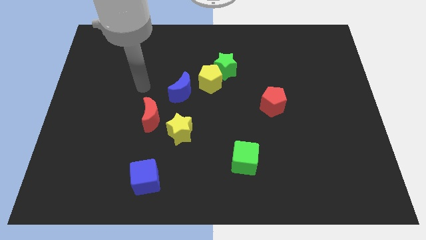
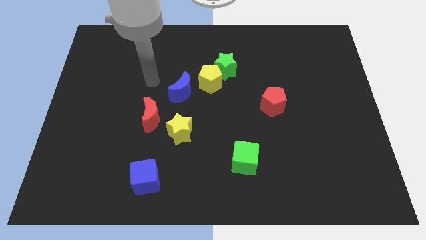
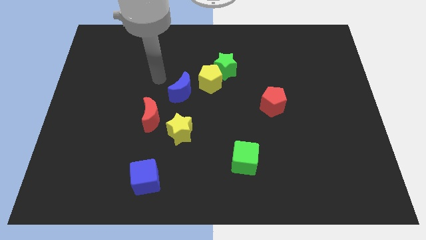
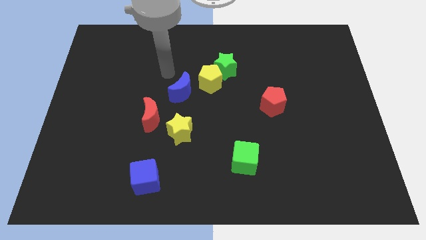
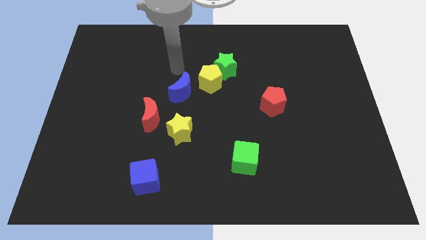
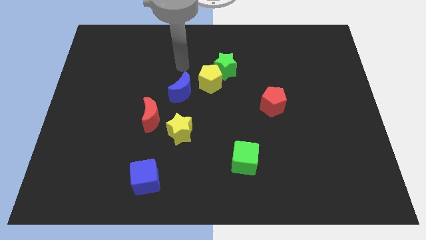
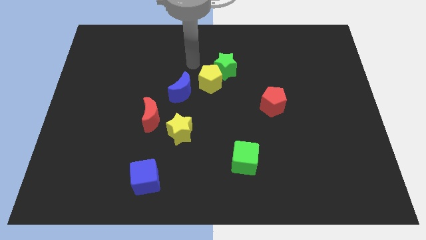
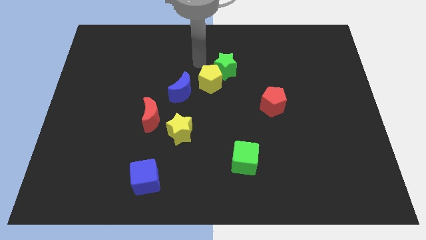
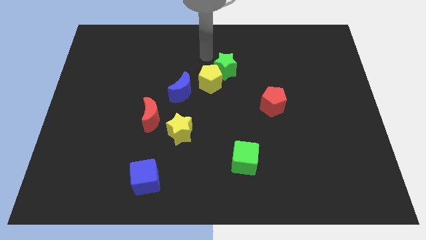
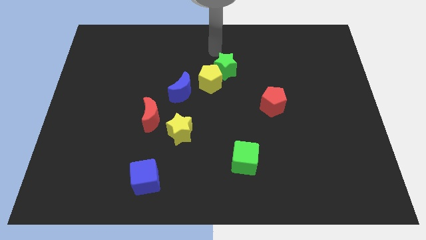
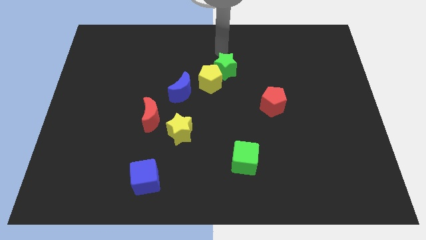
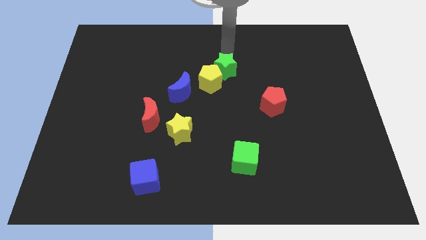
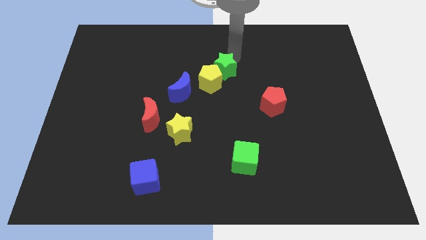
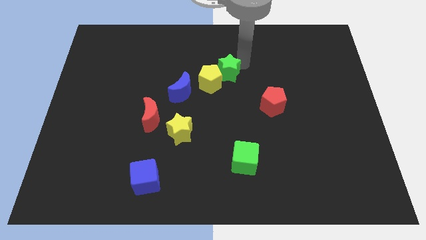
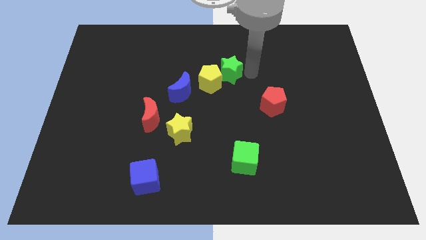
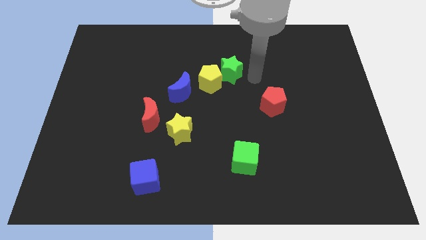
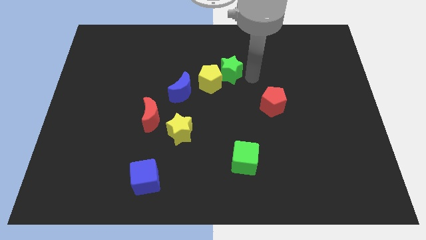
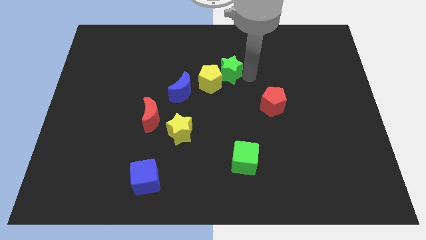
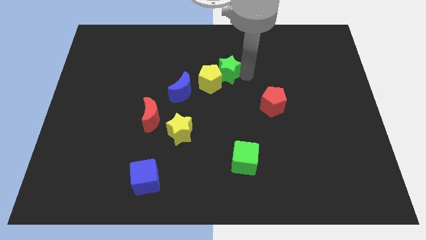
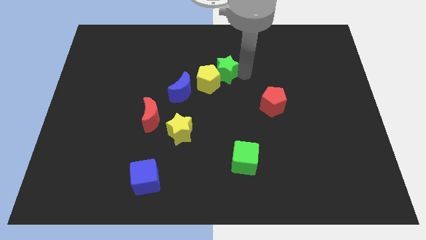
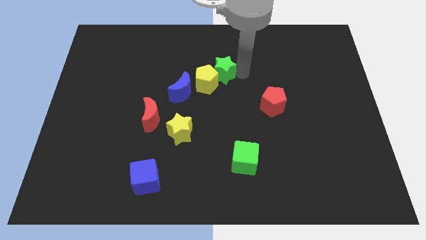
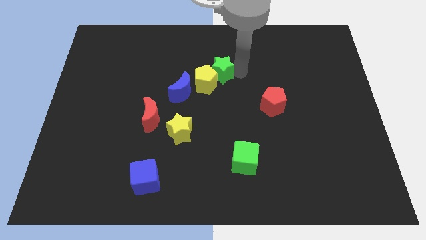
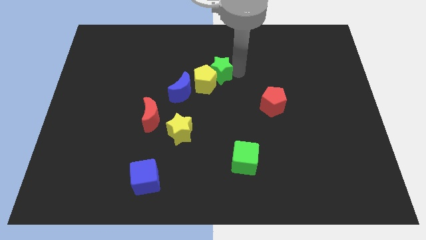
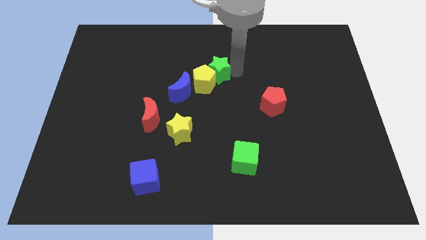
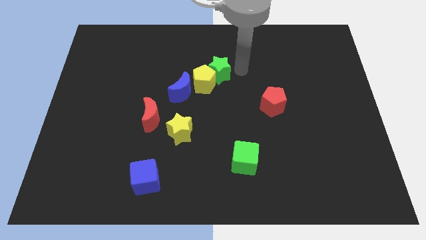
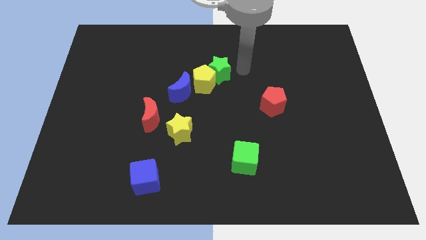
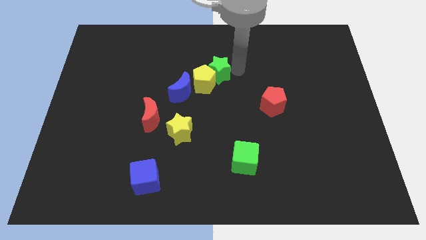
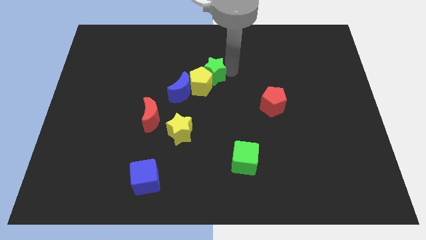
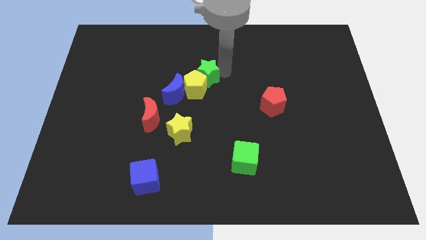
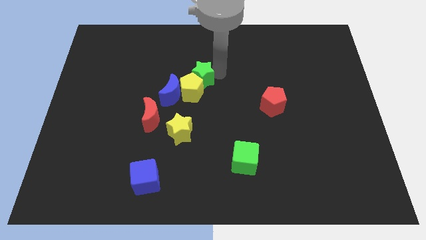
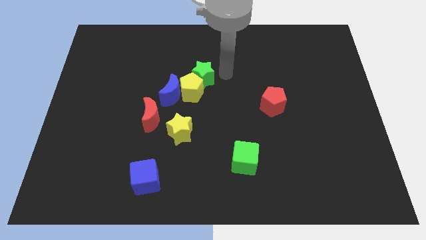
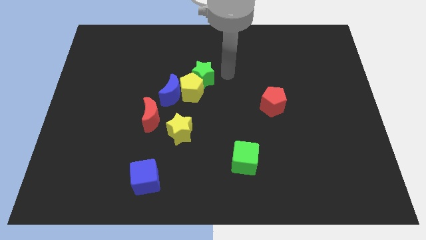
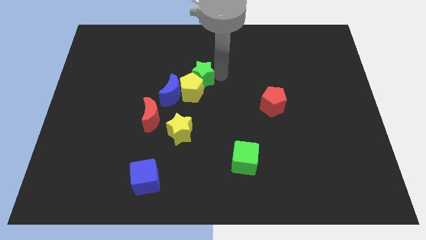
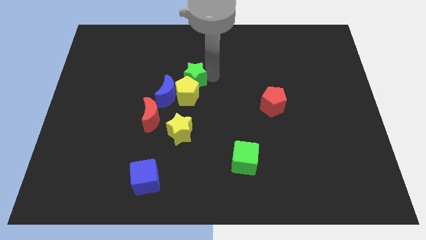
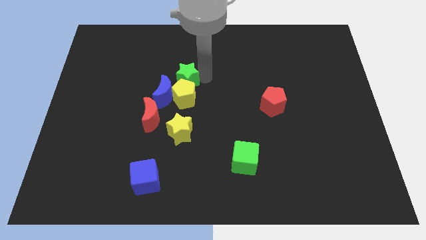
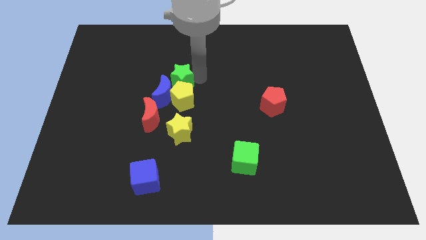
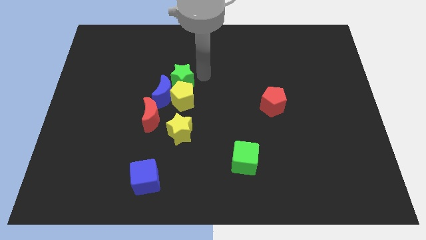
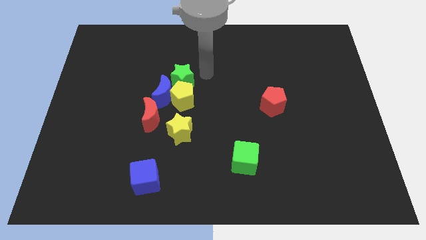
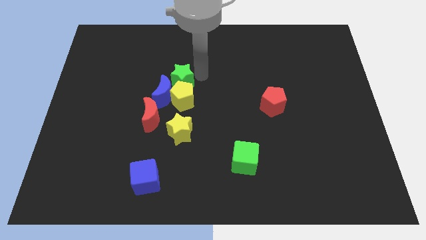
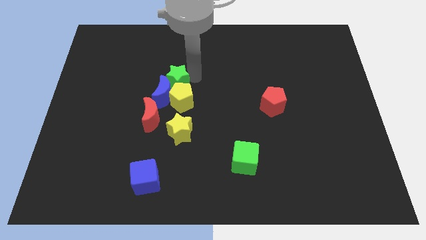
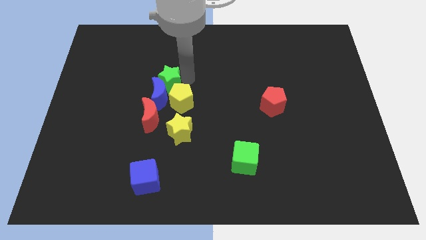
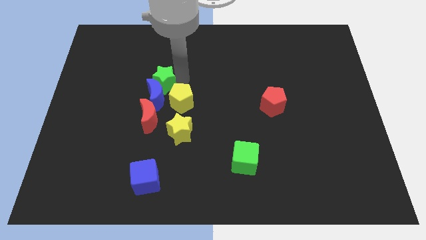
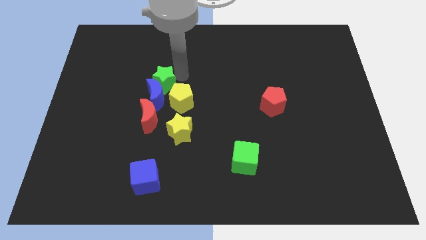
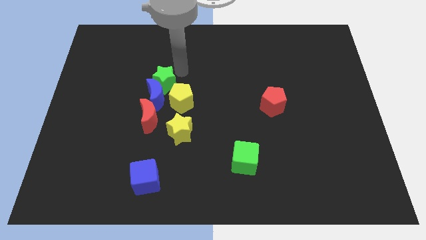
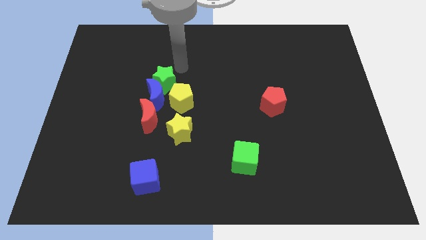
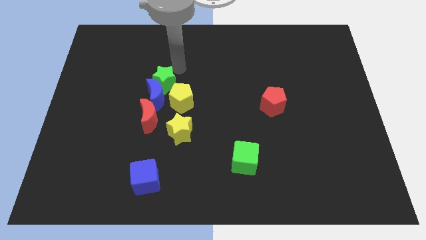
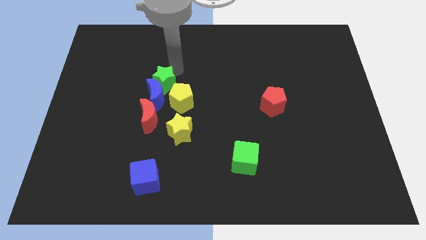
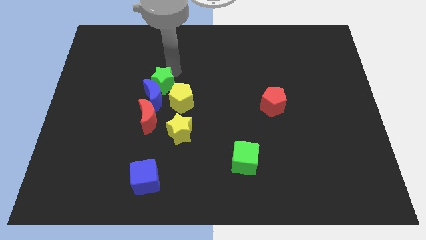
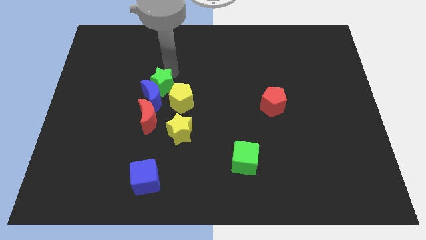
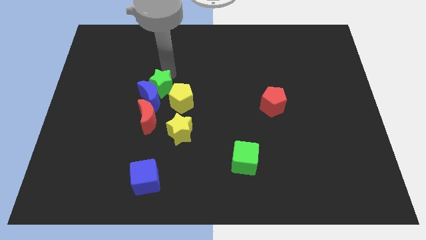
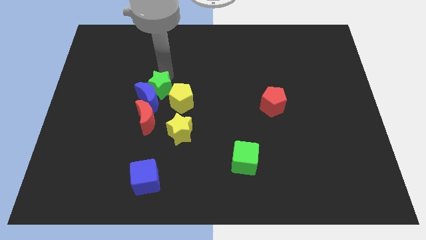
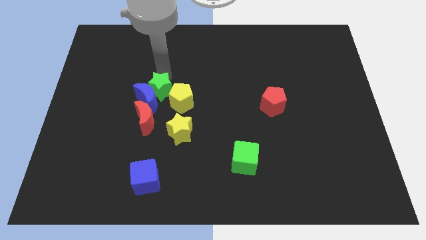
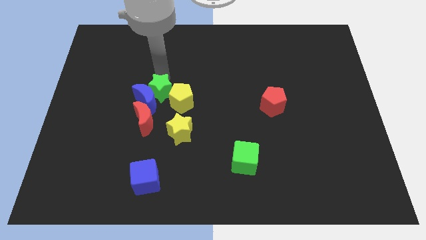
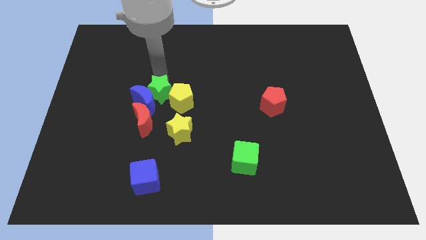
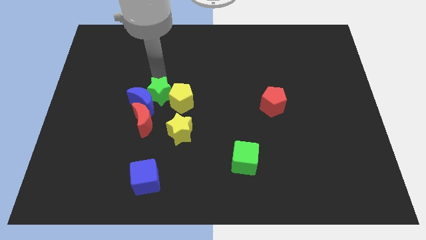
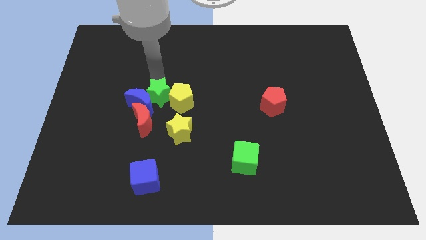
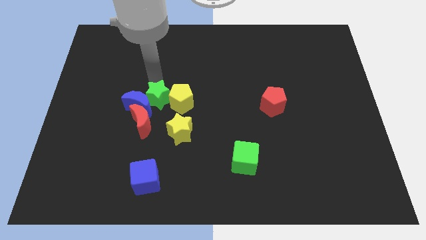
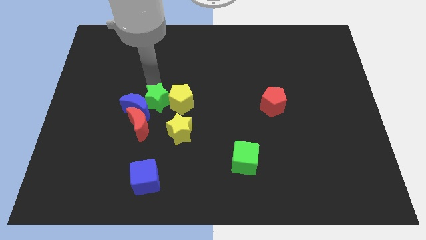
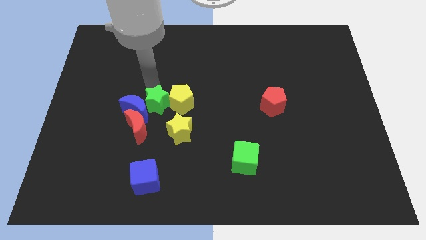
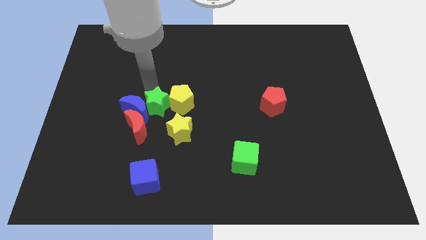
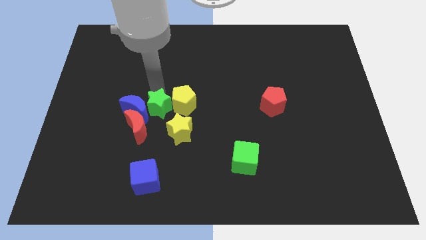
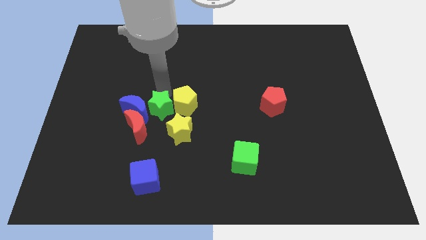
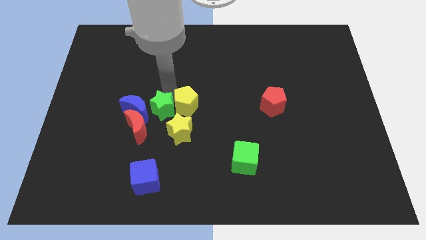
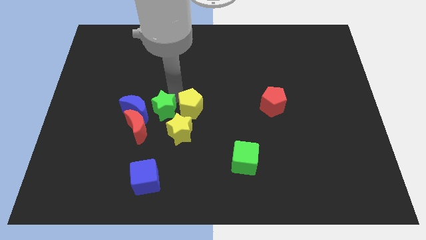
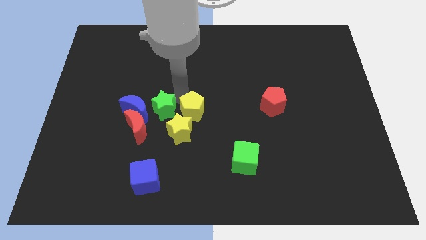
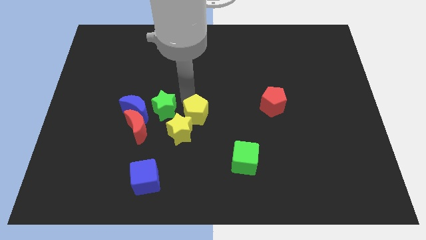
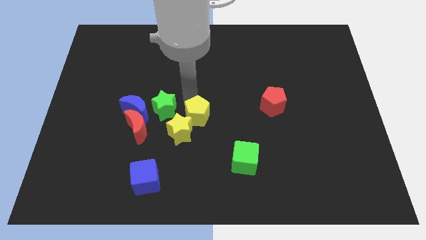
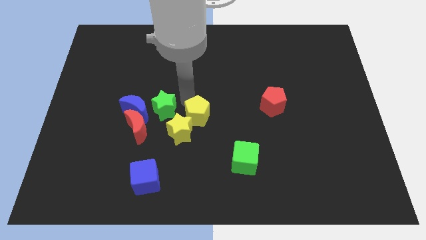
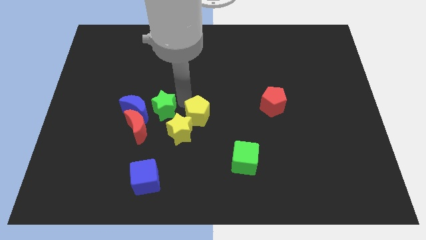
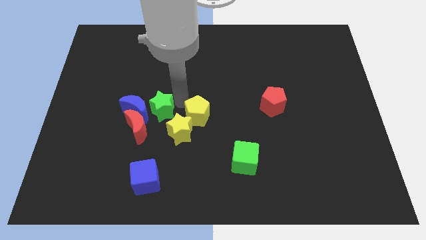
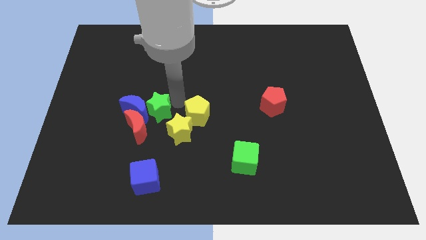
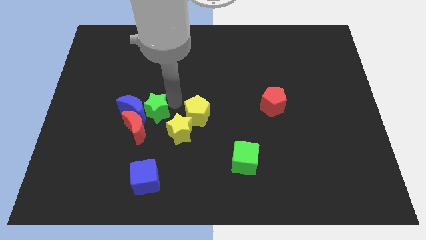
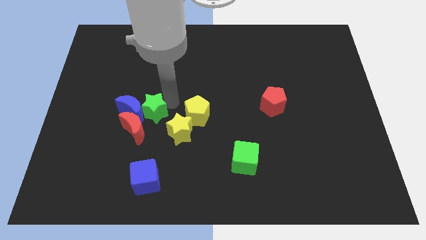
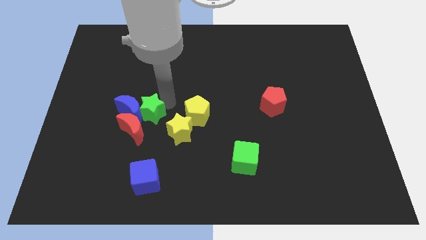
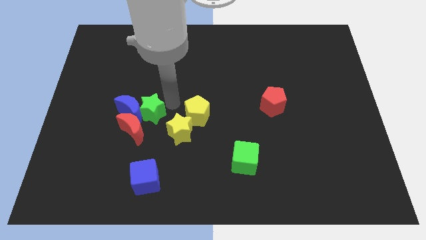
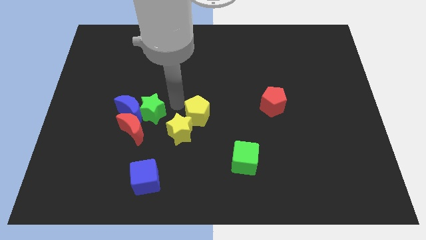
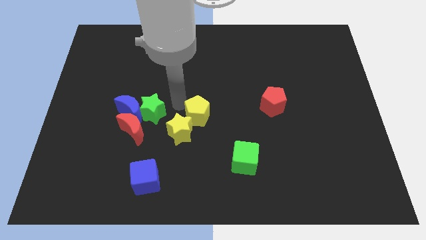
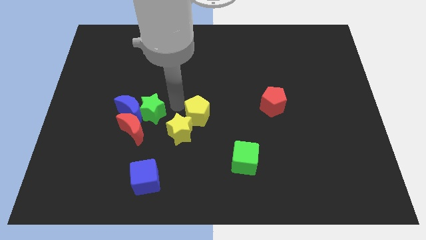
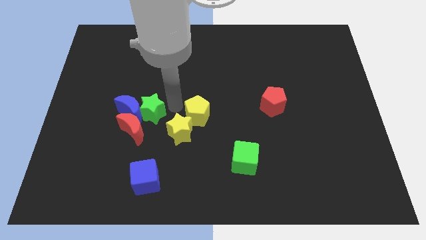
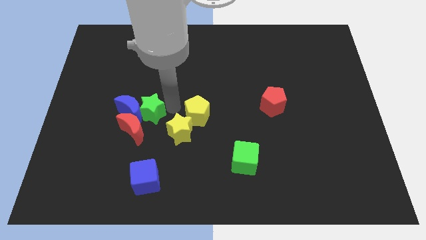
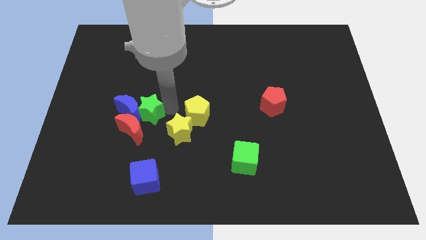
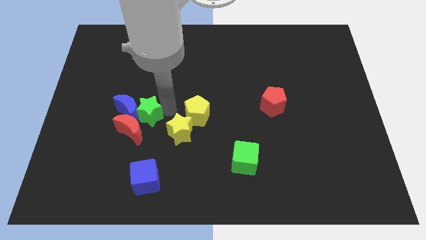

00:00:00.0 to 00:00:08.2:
push the green star left of the yellow star
